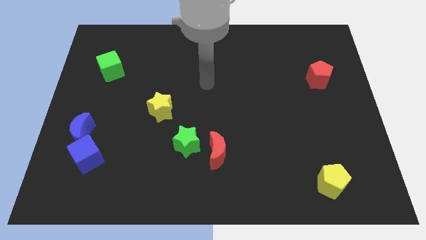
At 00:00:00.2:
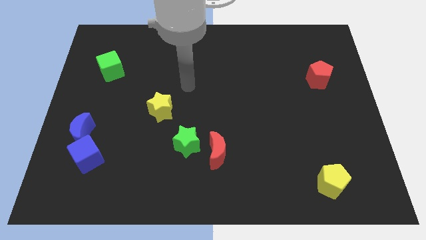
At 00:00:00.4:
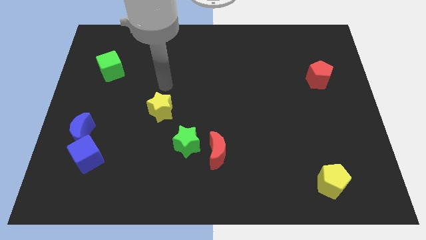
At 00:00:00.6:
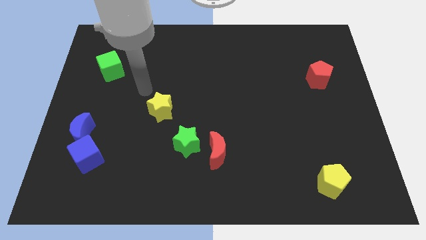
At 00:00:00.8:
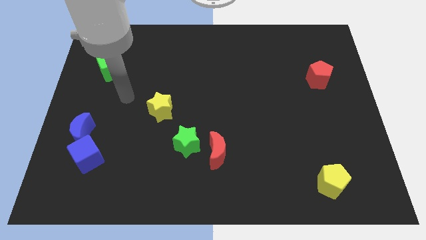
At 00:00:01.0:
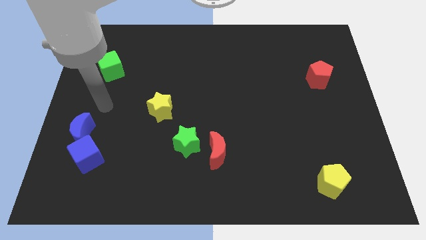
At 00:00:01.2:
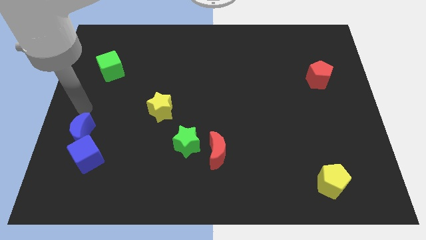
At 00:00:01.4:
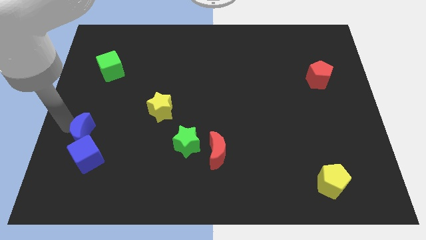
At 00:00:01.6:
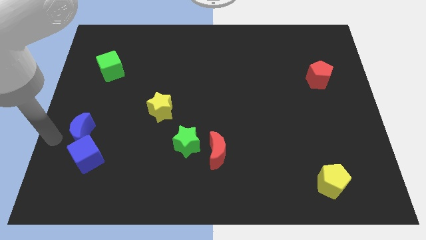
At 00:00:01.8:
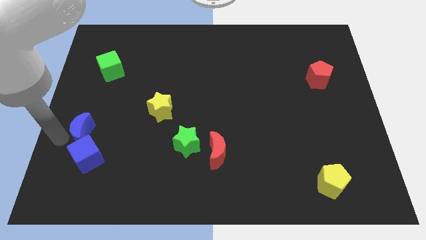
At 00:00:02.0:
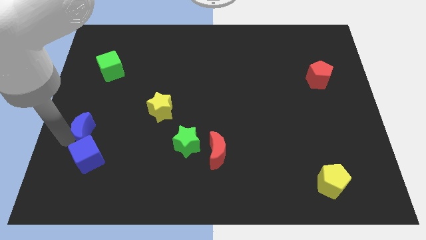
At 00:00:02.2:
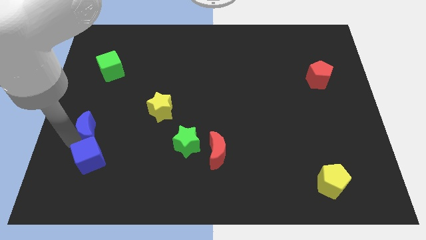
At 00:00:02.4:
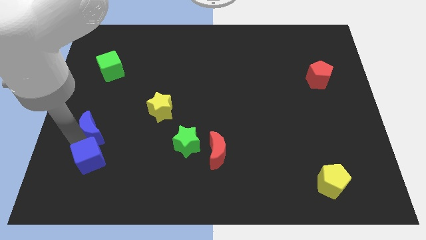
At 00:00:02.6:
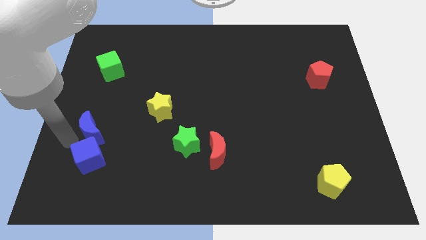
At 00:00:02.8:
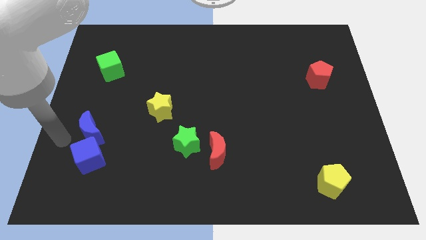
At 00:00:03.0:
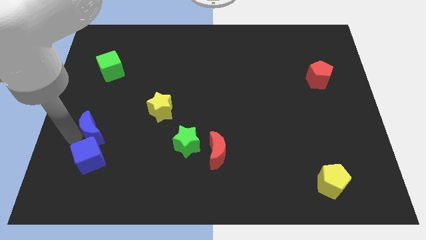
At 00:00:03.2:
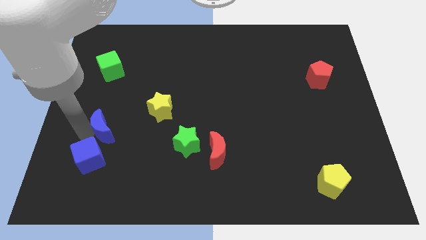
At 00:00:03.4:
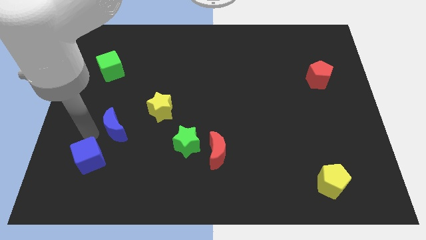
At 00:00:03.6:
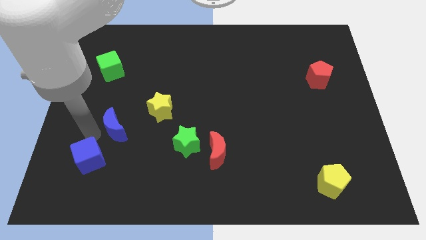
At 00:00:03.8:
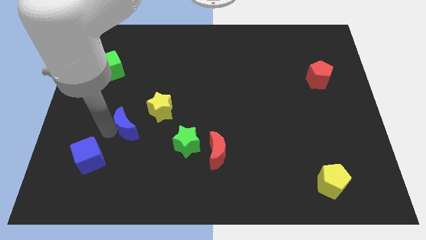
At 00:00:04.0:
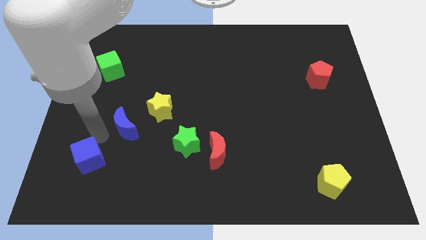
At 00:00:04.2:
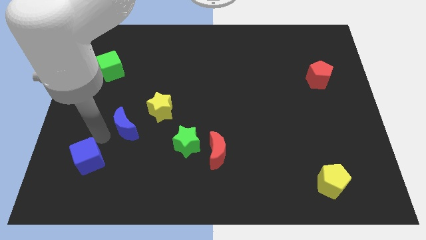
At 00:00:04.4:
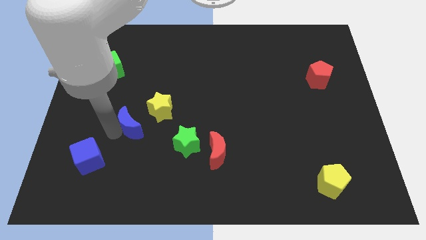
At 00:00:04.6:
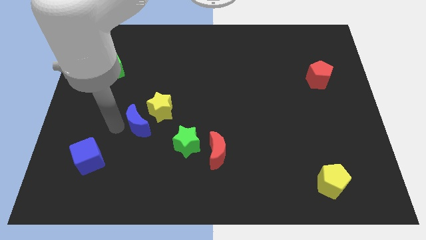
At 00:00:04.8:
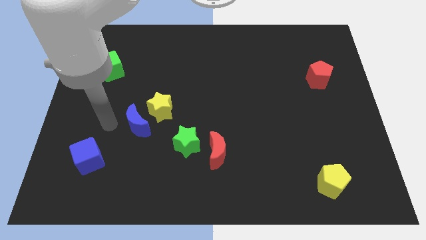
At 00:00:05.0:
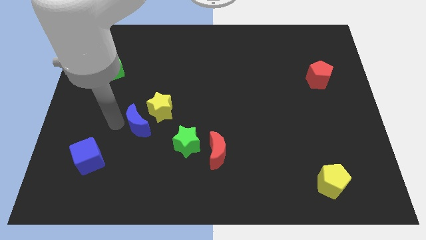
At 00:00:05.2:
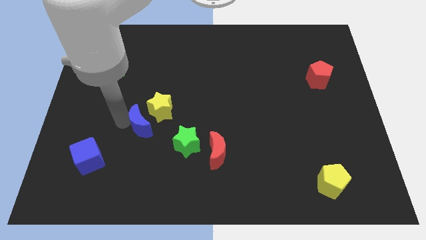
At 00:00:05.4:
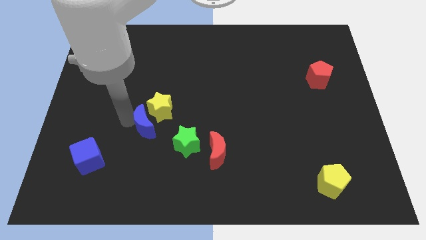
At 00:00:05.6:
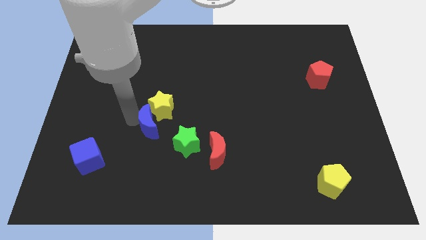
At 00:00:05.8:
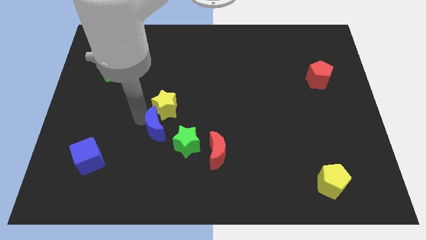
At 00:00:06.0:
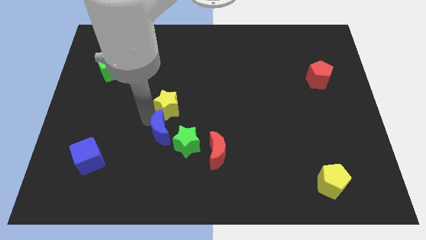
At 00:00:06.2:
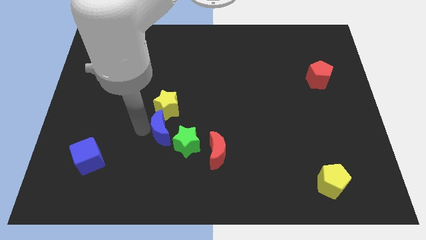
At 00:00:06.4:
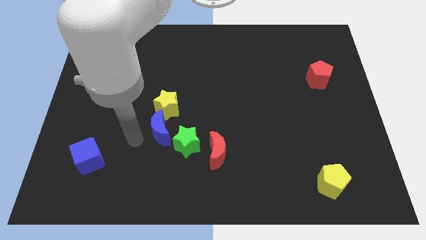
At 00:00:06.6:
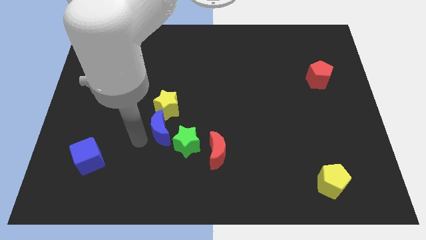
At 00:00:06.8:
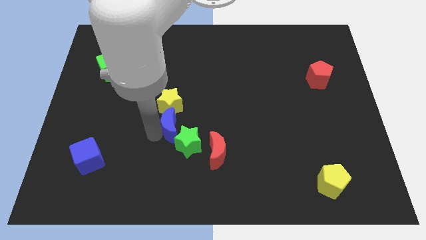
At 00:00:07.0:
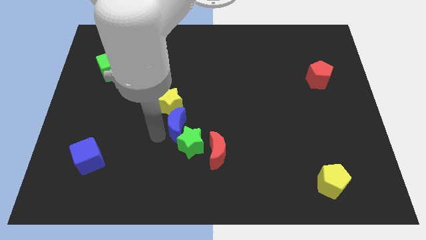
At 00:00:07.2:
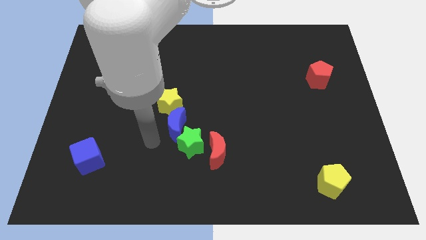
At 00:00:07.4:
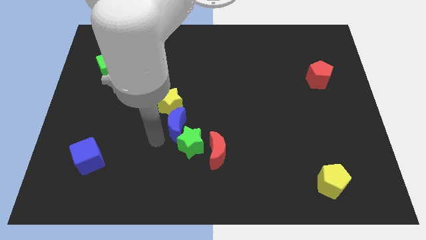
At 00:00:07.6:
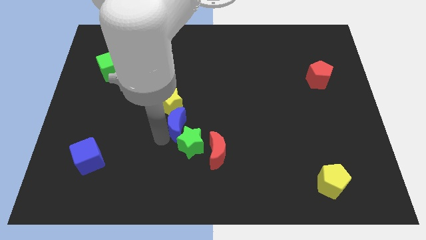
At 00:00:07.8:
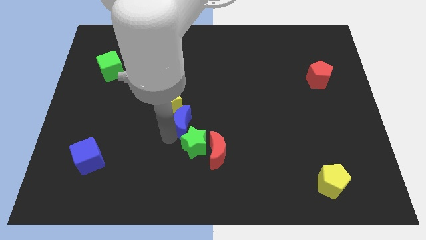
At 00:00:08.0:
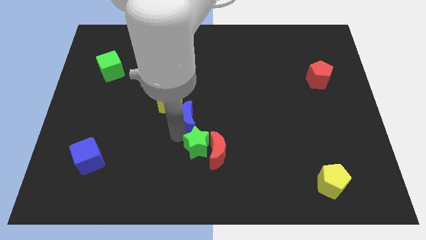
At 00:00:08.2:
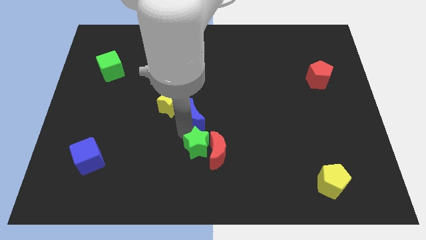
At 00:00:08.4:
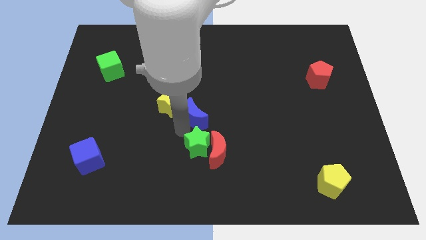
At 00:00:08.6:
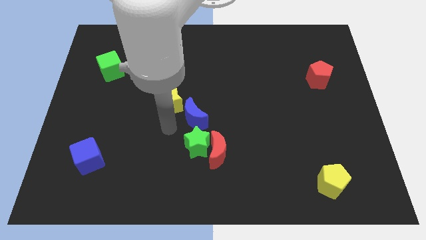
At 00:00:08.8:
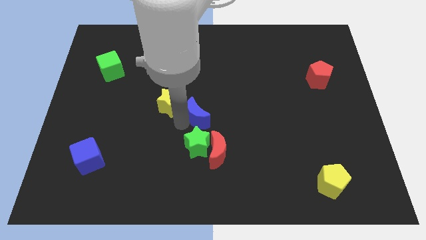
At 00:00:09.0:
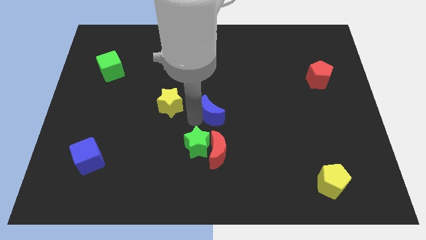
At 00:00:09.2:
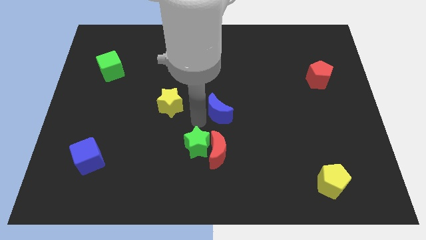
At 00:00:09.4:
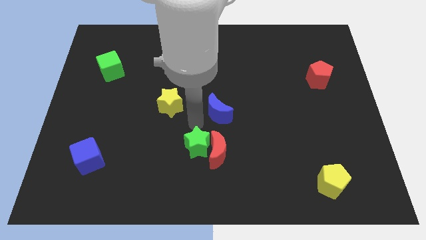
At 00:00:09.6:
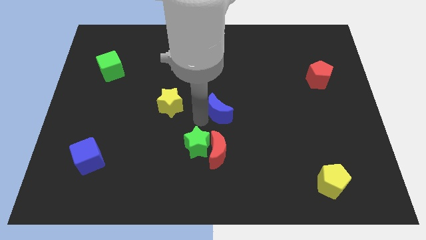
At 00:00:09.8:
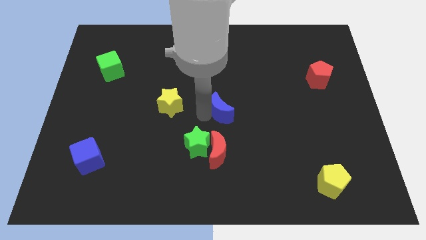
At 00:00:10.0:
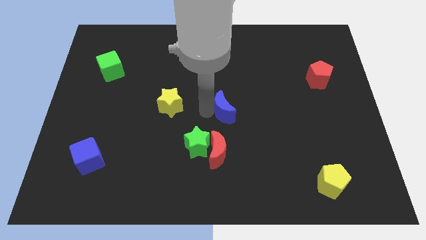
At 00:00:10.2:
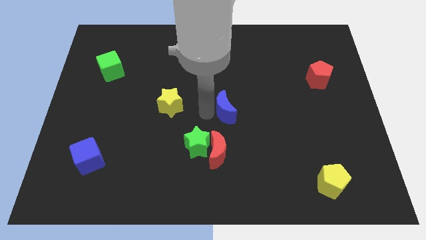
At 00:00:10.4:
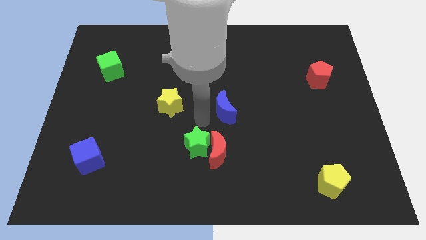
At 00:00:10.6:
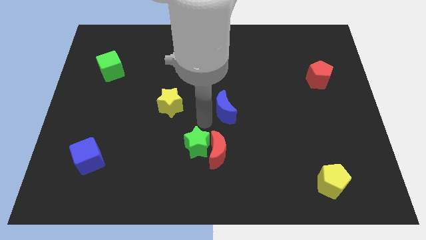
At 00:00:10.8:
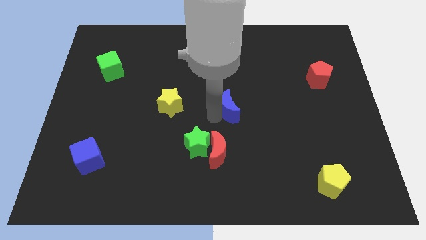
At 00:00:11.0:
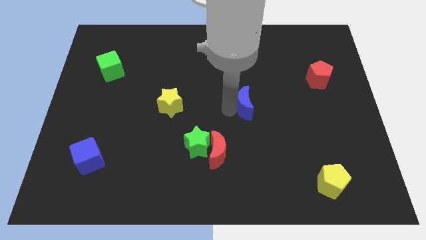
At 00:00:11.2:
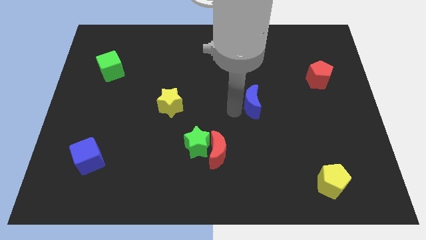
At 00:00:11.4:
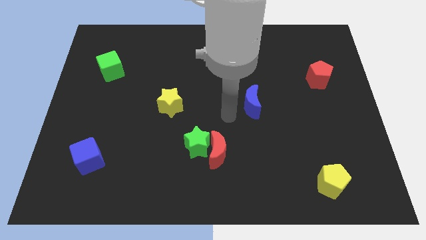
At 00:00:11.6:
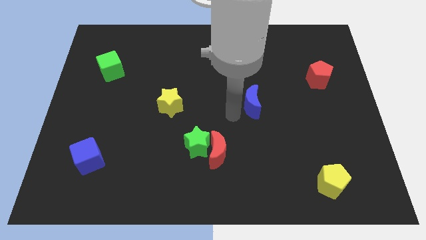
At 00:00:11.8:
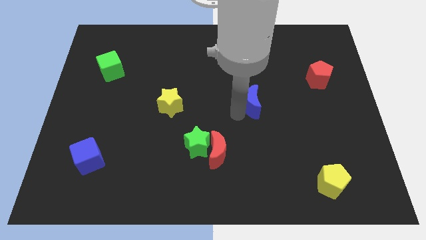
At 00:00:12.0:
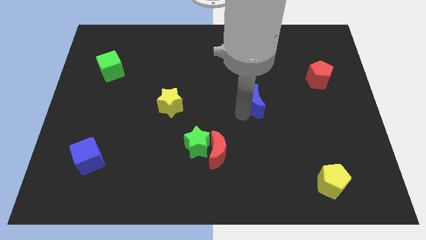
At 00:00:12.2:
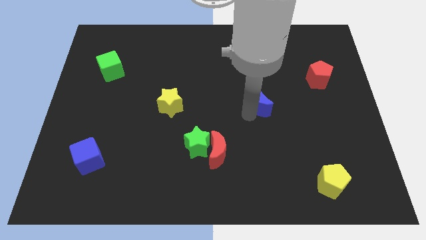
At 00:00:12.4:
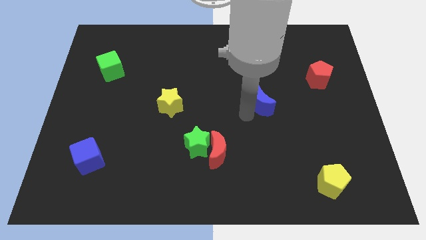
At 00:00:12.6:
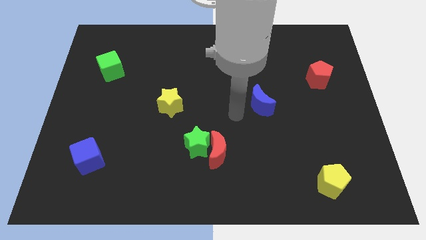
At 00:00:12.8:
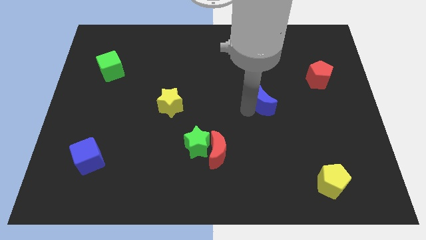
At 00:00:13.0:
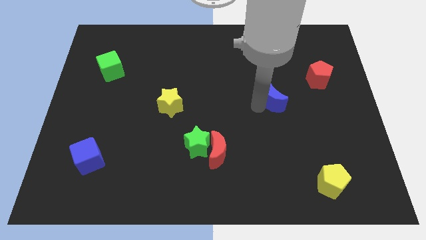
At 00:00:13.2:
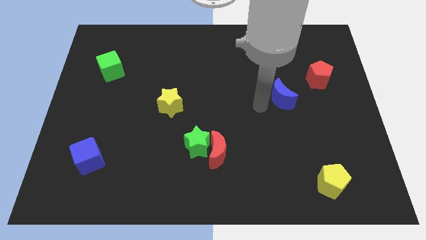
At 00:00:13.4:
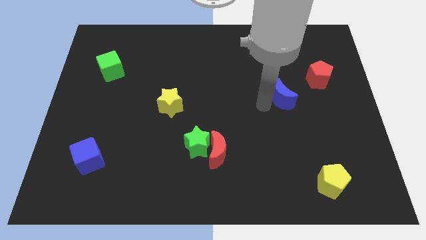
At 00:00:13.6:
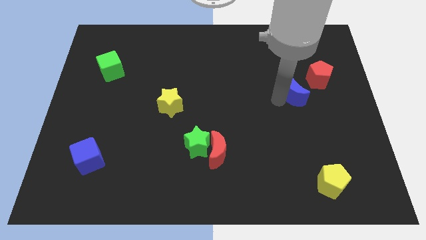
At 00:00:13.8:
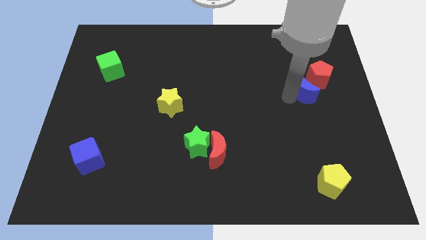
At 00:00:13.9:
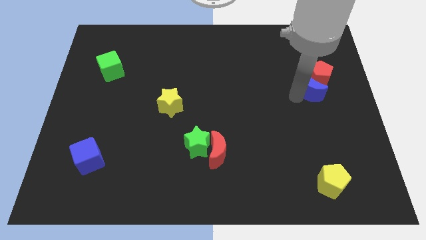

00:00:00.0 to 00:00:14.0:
move the blue moon next to the red pentagon
